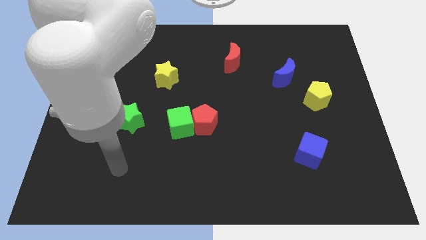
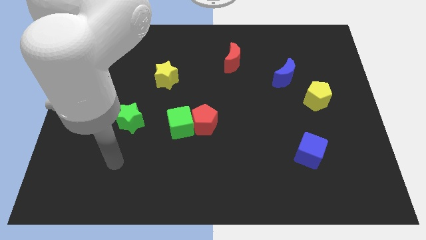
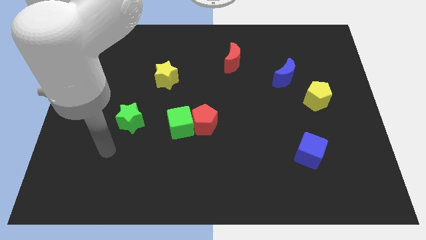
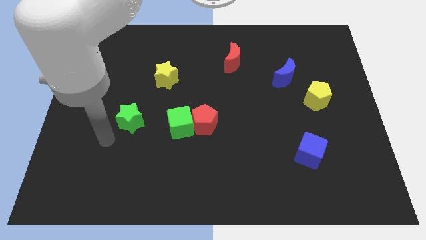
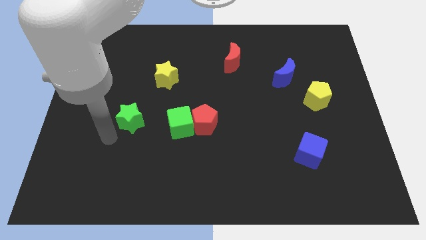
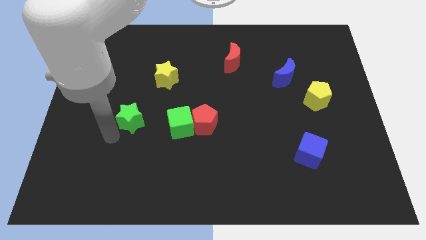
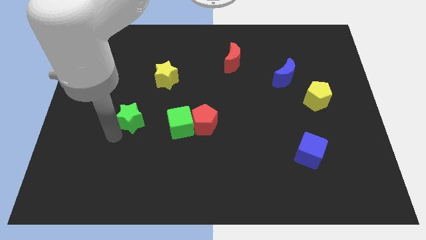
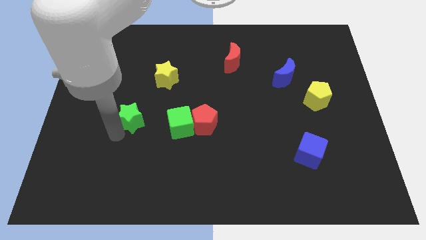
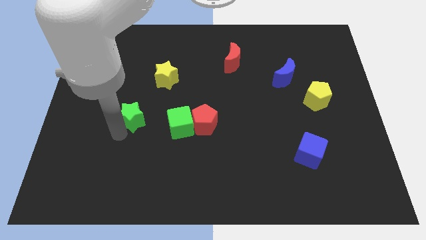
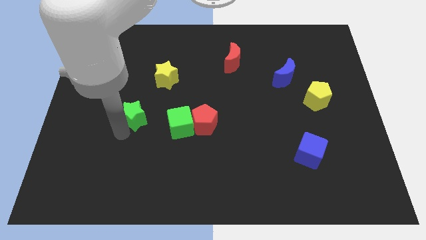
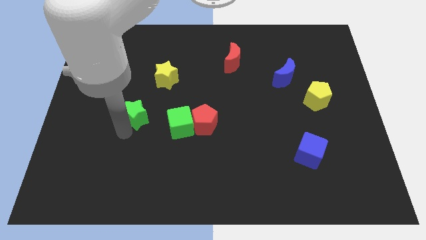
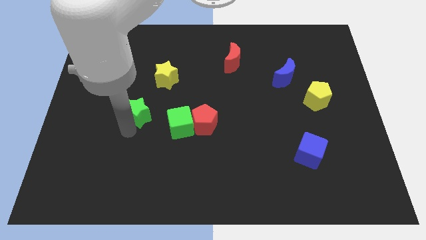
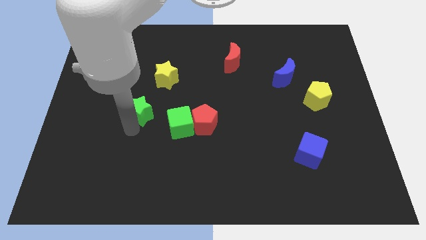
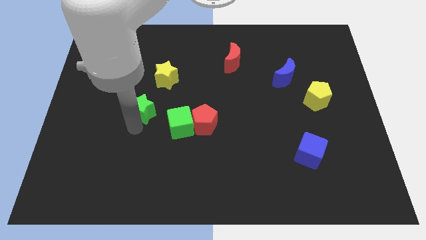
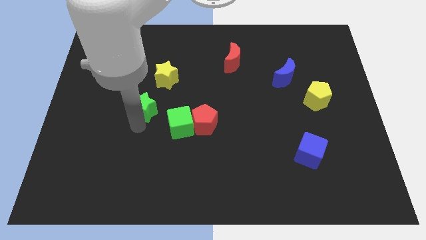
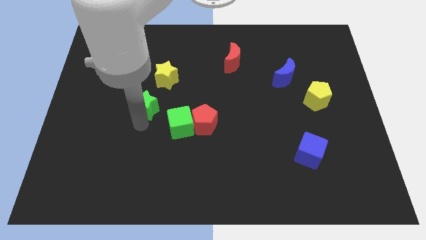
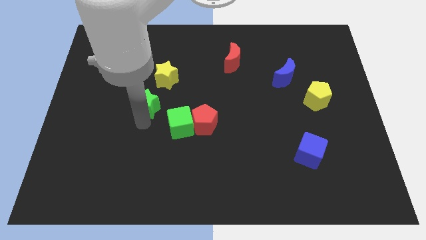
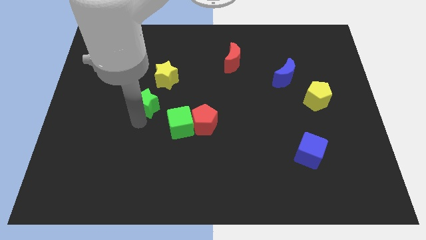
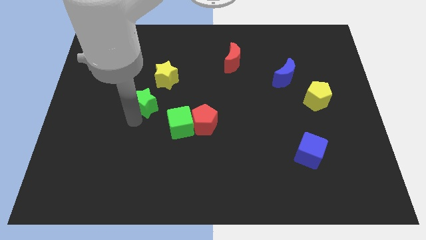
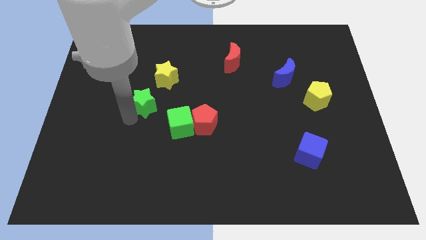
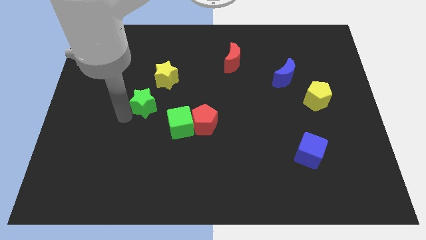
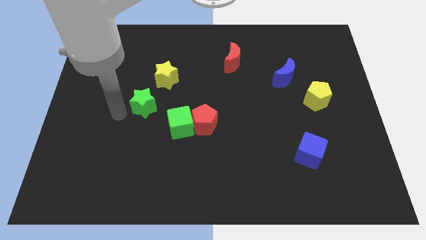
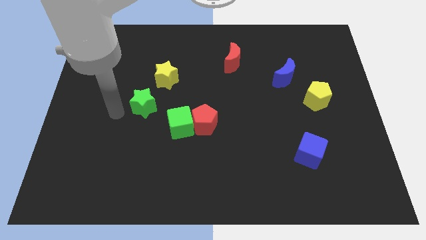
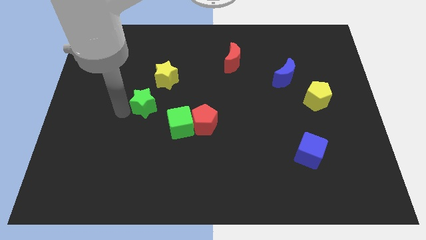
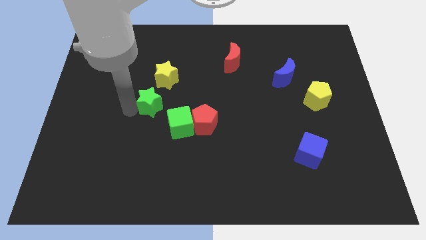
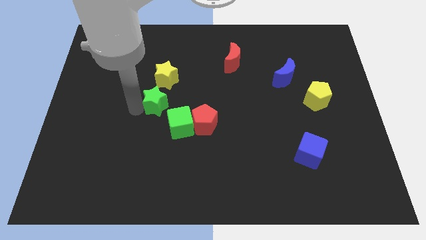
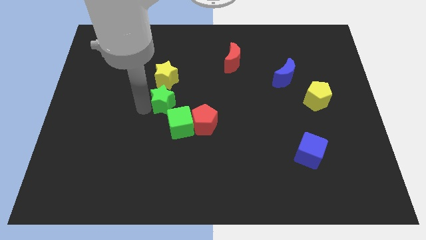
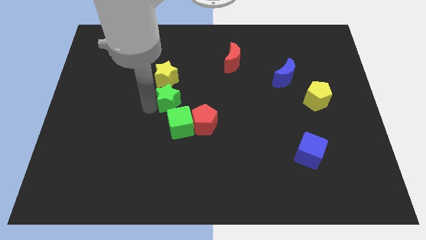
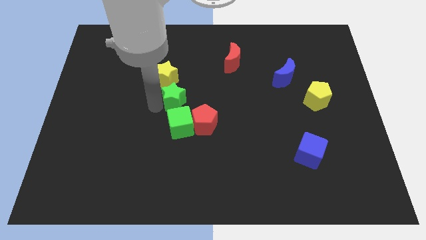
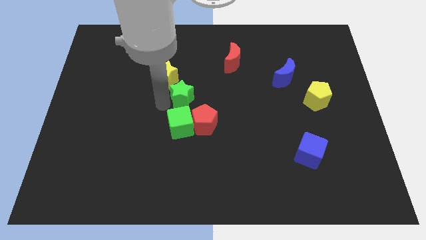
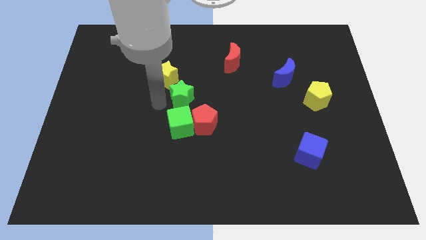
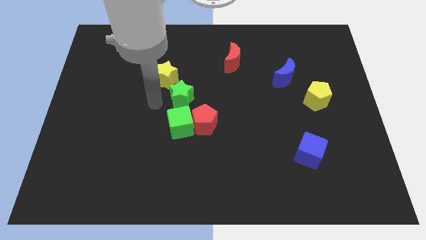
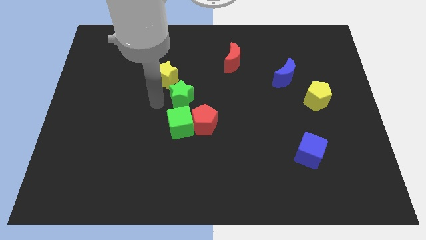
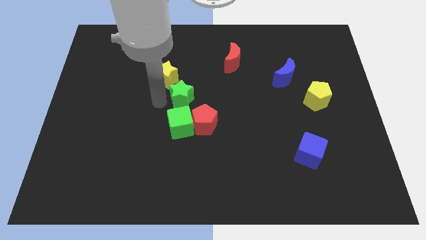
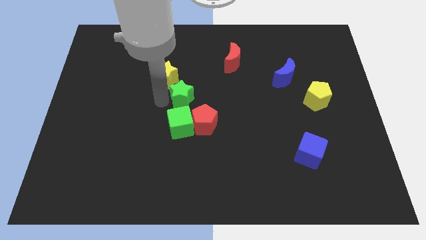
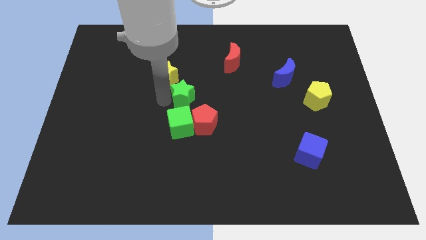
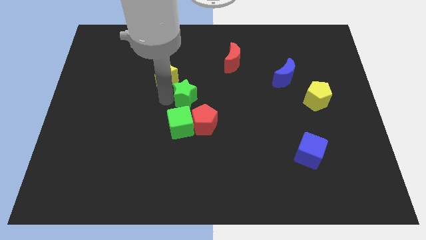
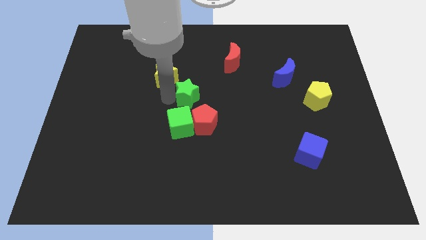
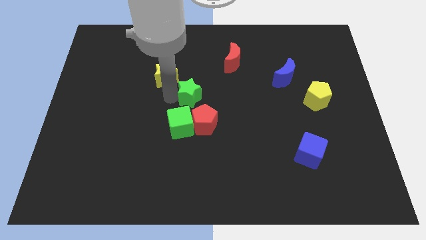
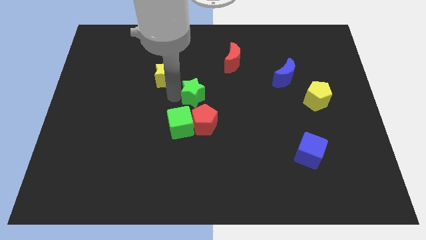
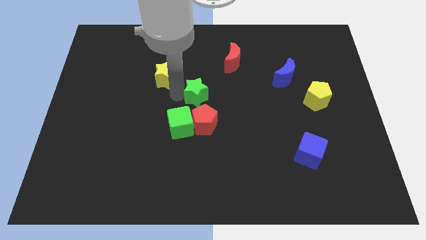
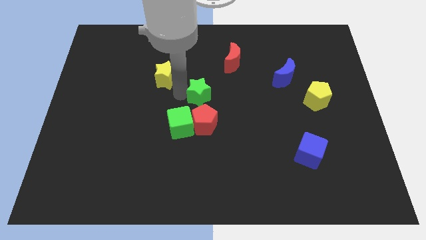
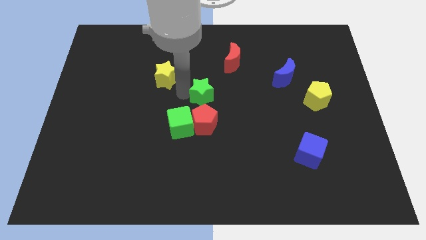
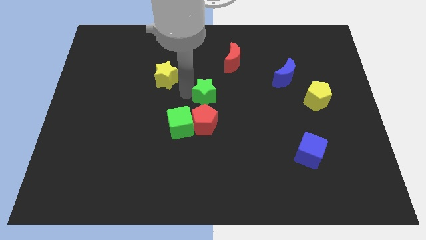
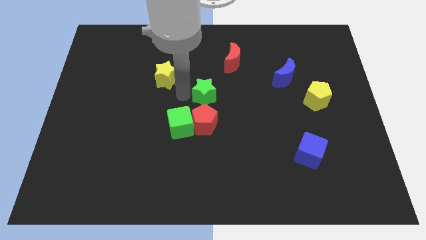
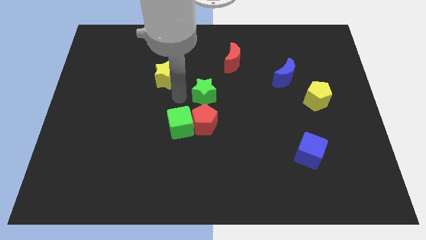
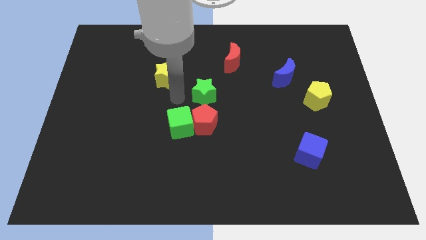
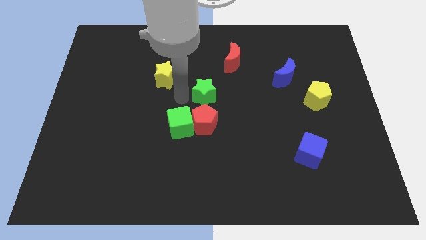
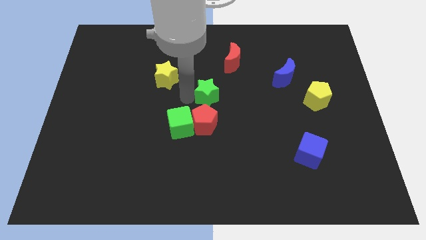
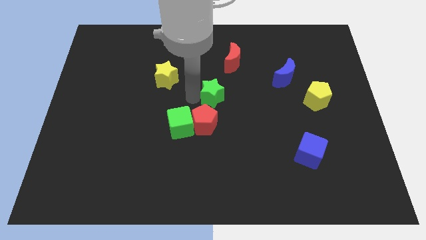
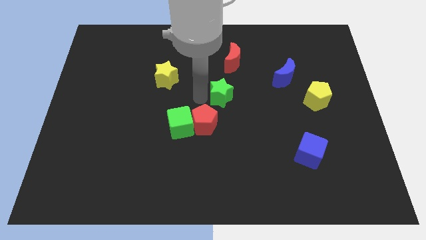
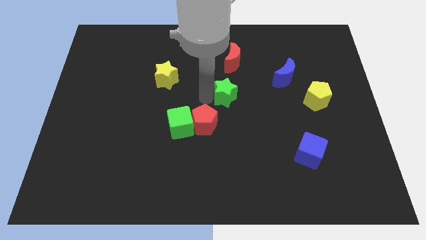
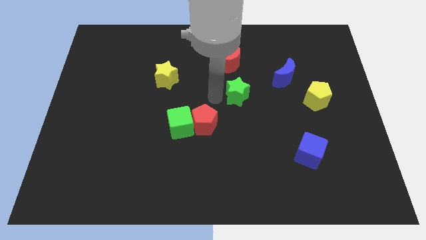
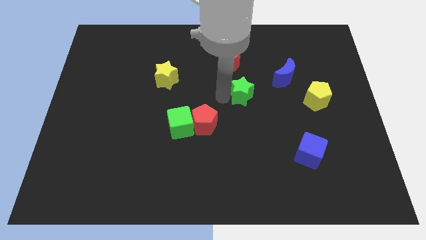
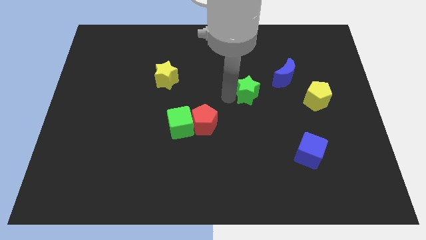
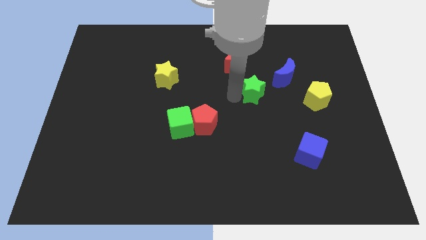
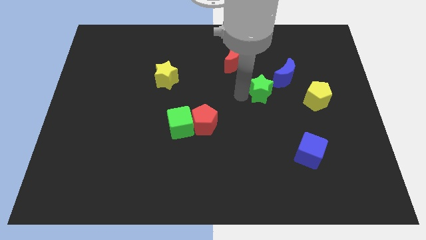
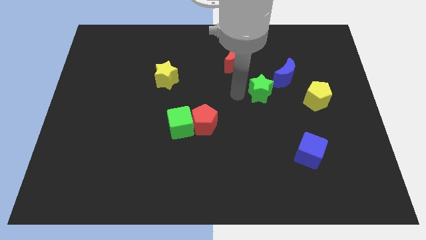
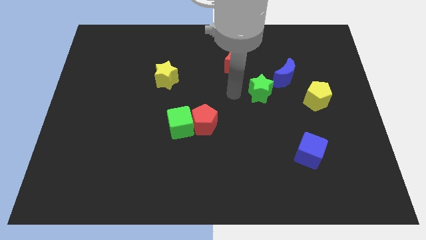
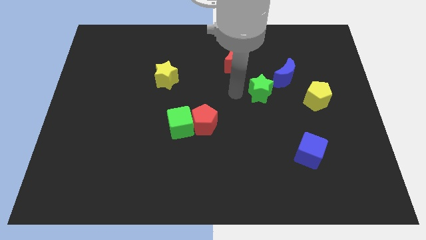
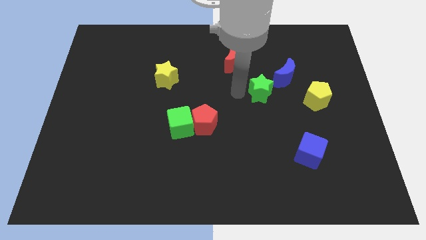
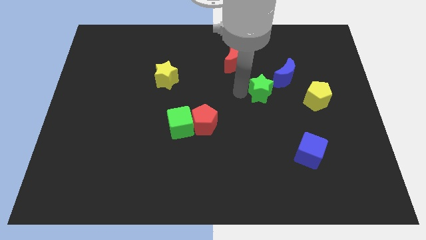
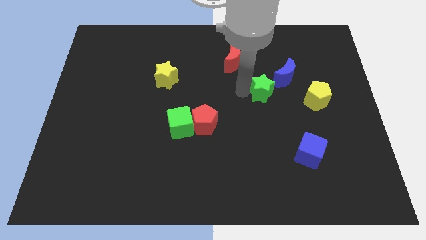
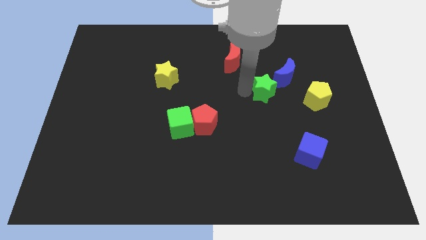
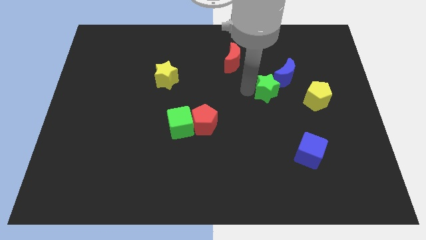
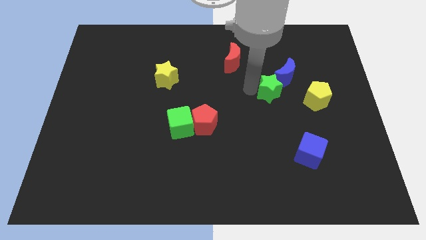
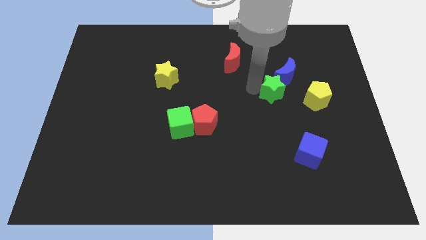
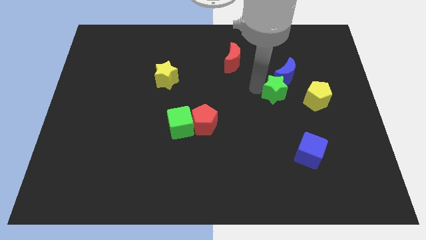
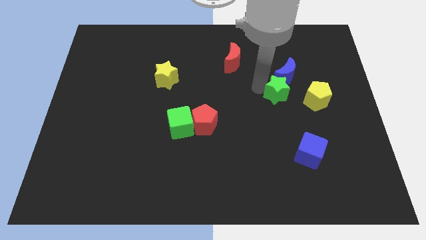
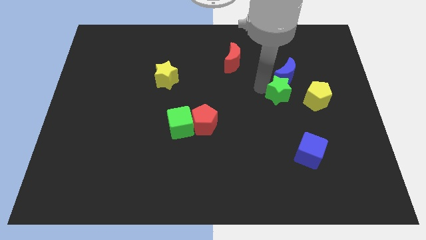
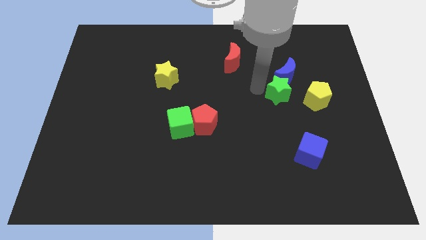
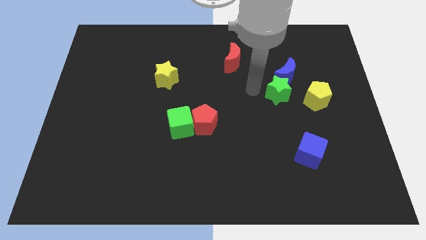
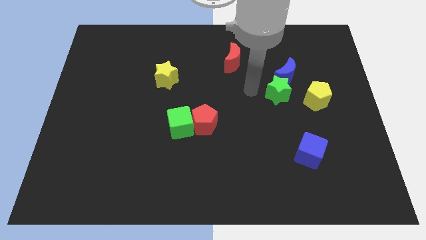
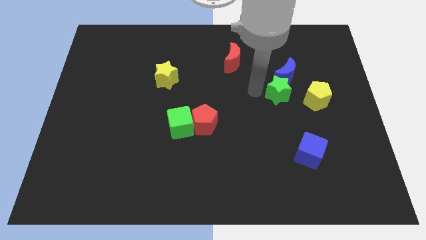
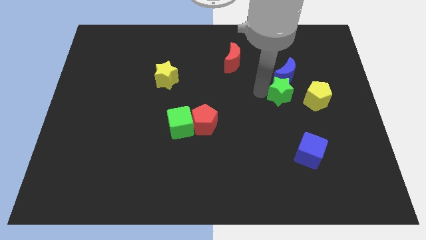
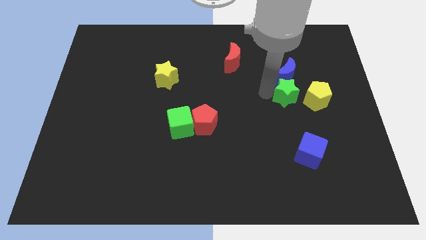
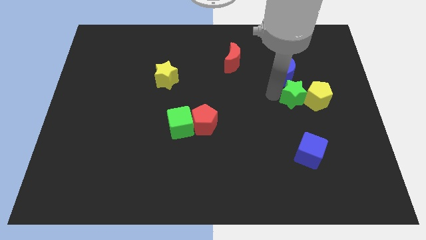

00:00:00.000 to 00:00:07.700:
move the green star next to the yellow pentagon
